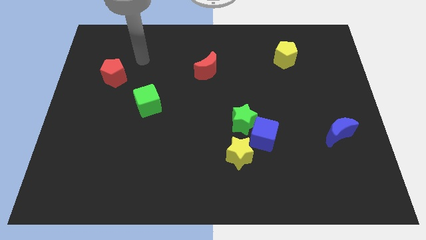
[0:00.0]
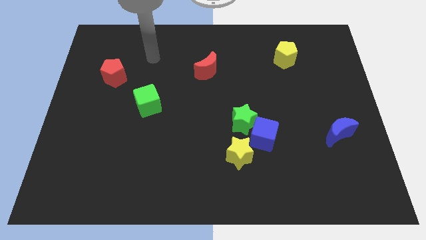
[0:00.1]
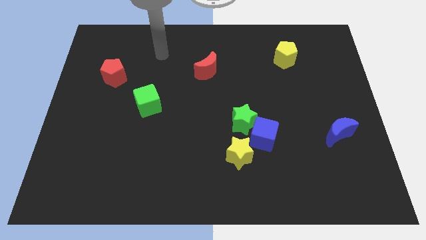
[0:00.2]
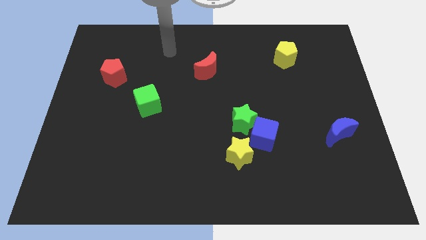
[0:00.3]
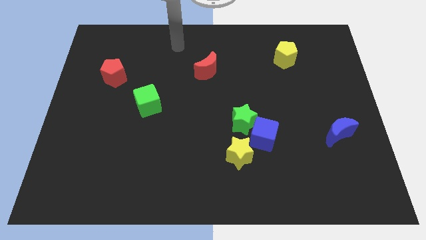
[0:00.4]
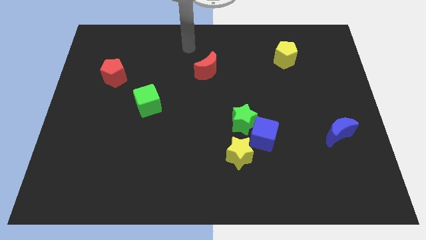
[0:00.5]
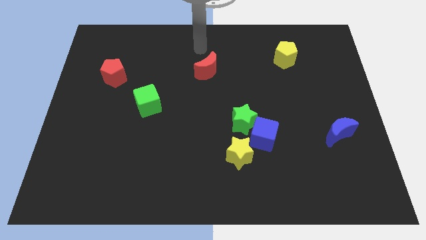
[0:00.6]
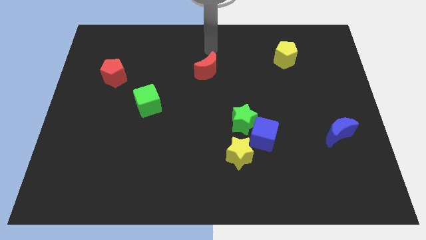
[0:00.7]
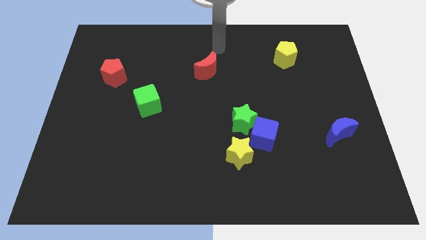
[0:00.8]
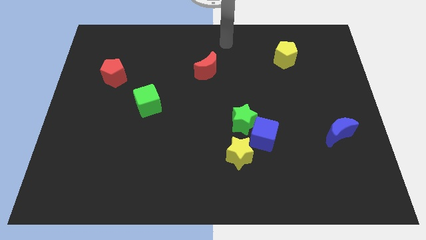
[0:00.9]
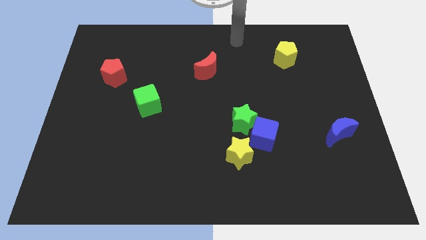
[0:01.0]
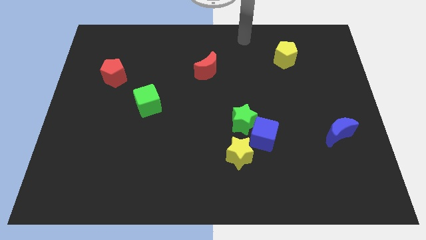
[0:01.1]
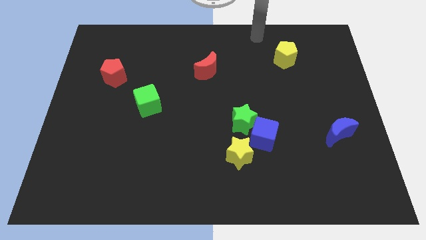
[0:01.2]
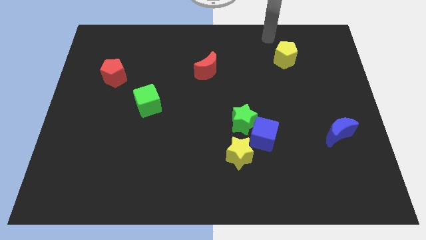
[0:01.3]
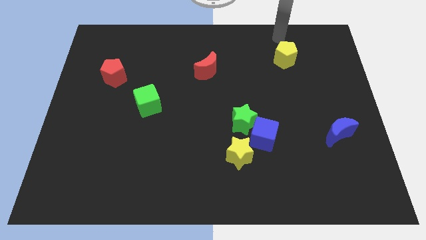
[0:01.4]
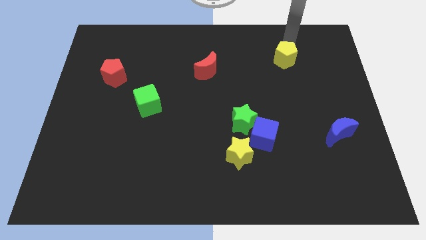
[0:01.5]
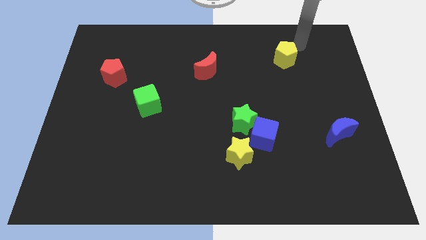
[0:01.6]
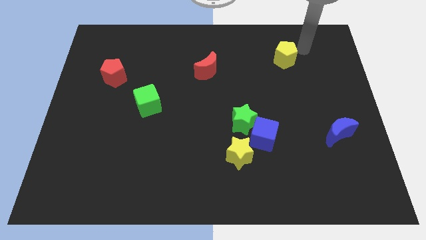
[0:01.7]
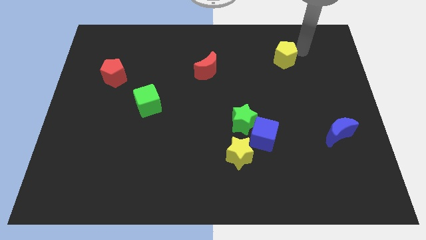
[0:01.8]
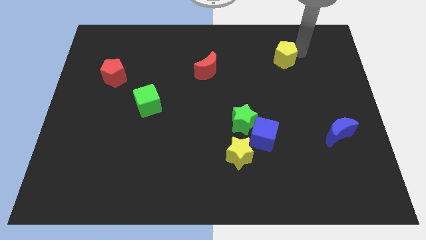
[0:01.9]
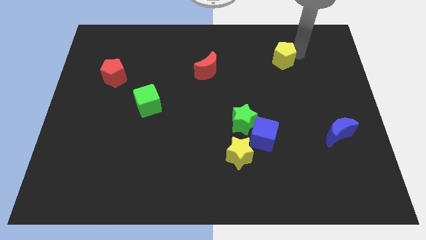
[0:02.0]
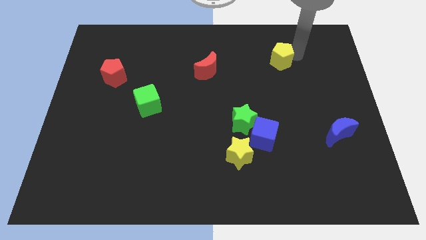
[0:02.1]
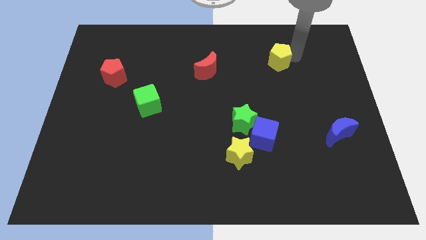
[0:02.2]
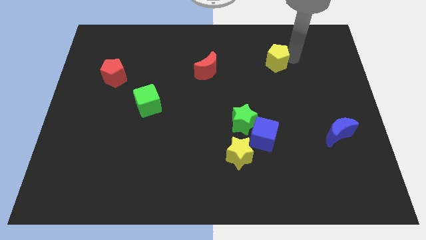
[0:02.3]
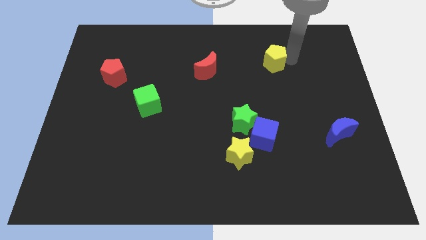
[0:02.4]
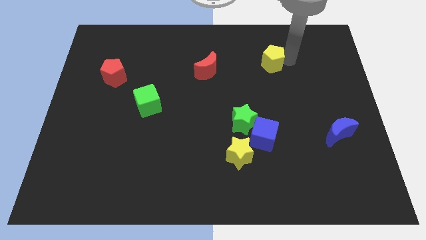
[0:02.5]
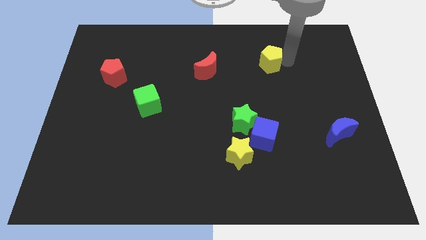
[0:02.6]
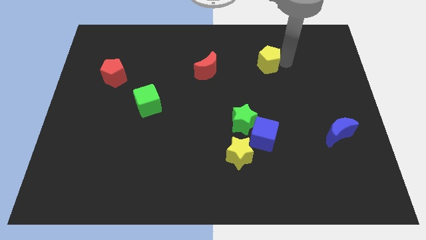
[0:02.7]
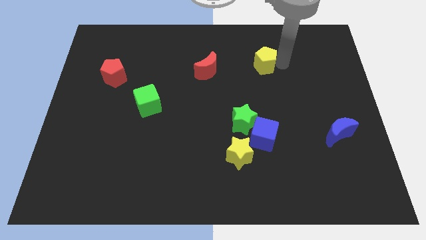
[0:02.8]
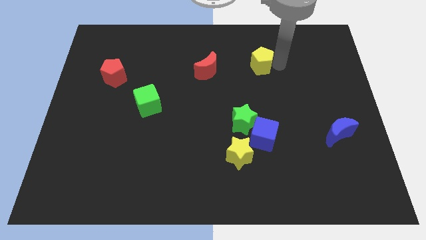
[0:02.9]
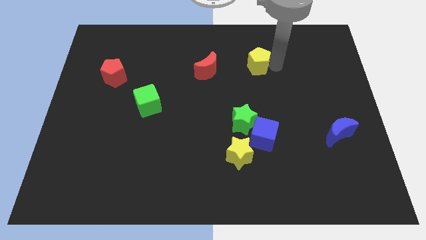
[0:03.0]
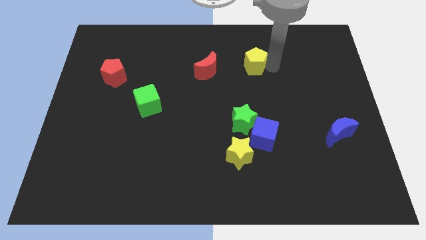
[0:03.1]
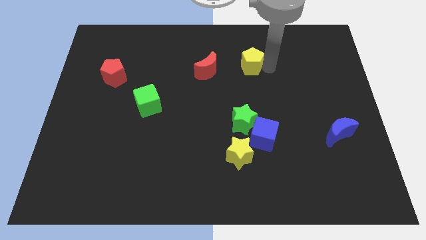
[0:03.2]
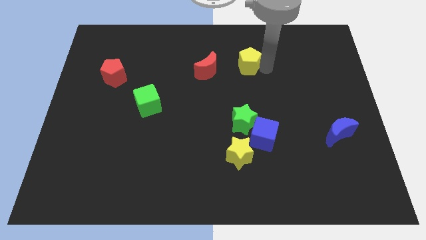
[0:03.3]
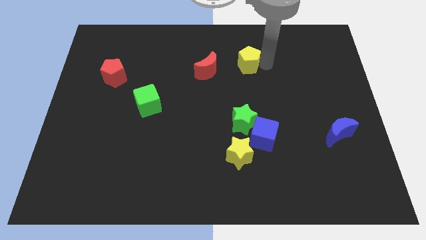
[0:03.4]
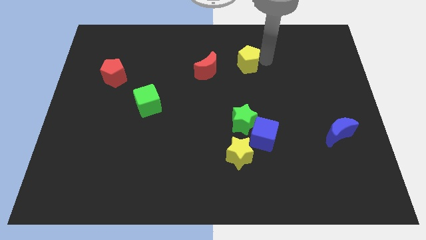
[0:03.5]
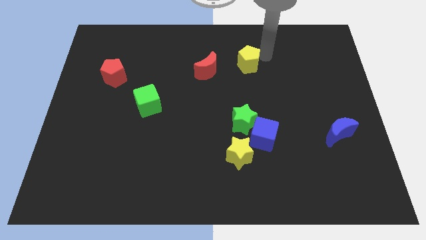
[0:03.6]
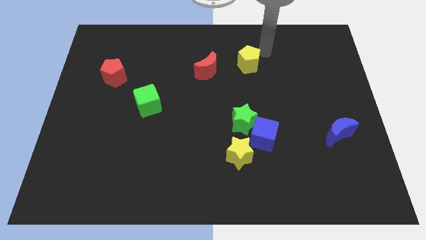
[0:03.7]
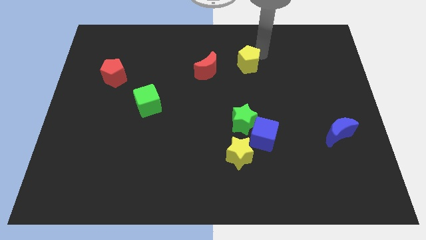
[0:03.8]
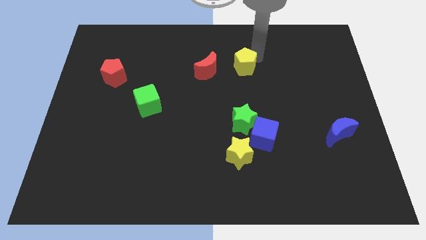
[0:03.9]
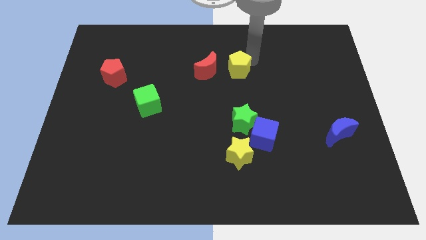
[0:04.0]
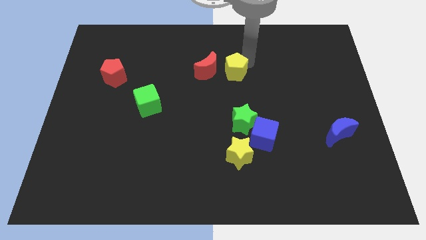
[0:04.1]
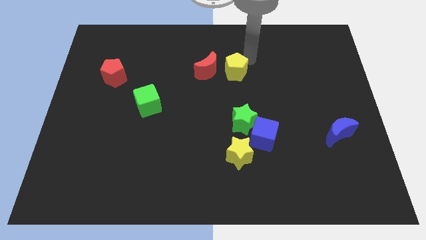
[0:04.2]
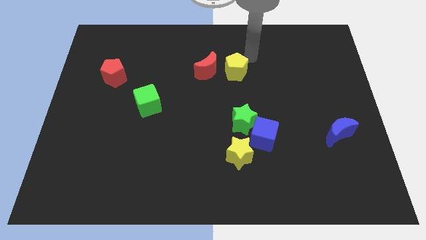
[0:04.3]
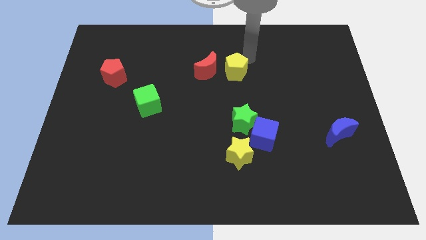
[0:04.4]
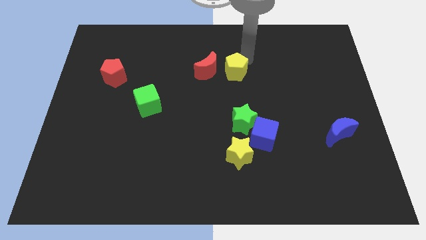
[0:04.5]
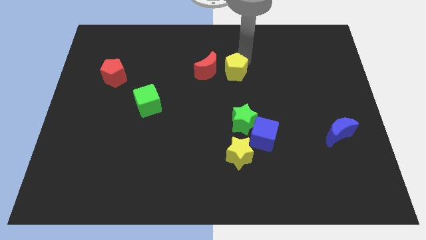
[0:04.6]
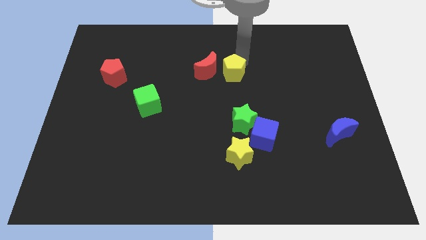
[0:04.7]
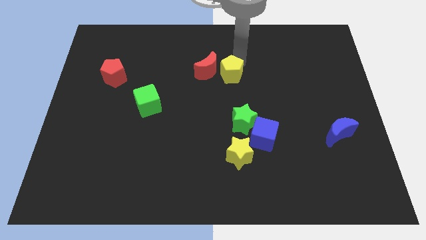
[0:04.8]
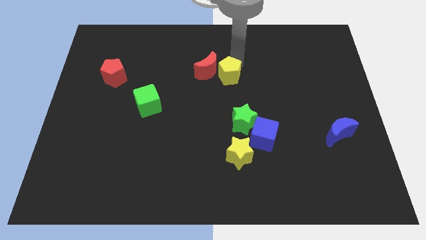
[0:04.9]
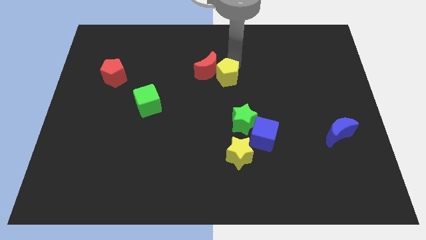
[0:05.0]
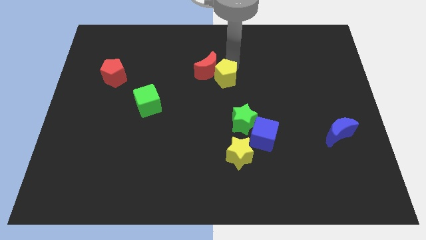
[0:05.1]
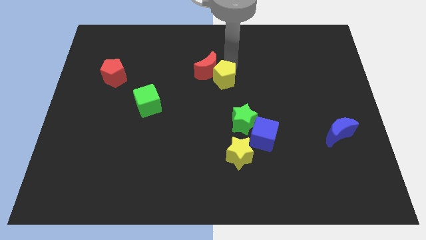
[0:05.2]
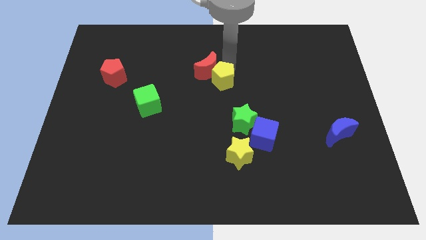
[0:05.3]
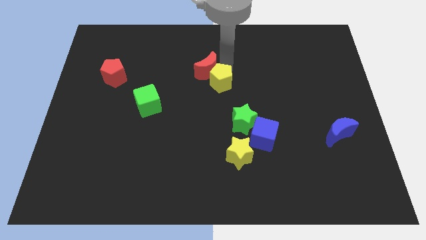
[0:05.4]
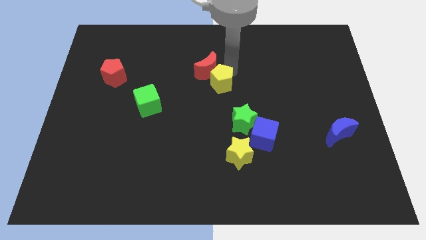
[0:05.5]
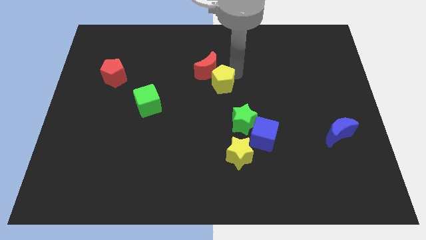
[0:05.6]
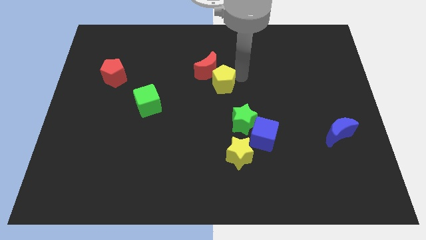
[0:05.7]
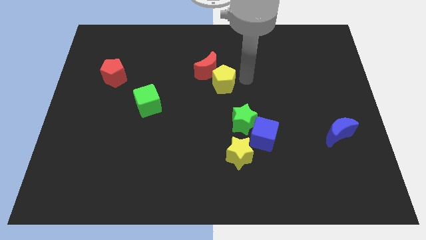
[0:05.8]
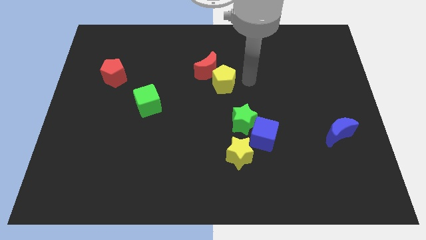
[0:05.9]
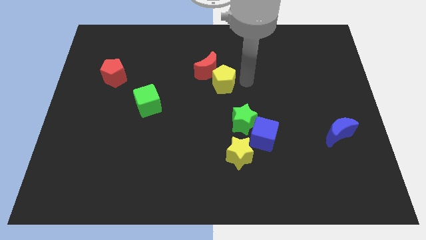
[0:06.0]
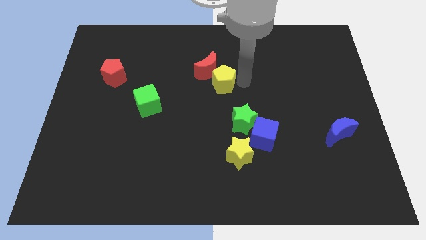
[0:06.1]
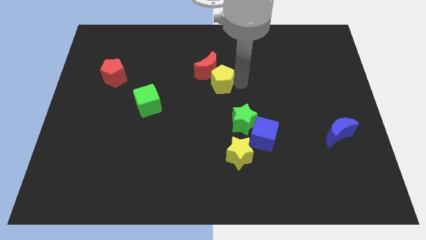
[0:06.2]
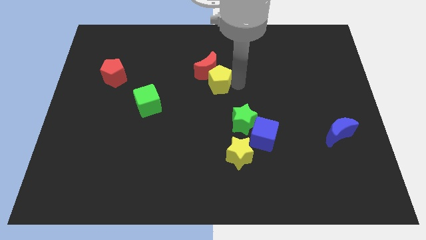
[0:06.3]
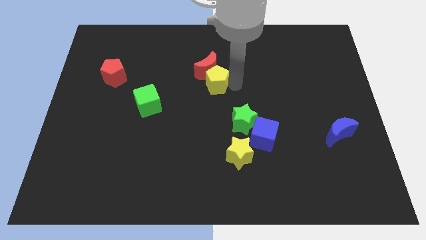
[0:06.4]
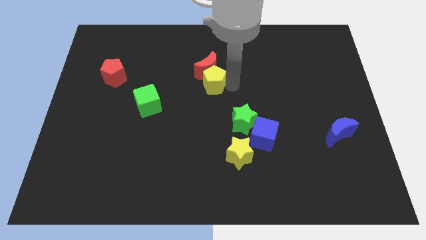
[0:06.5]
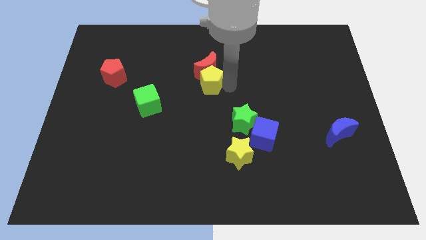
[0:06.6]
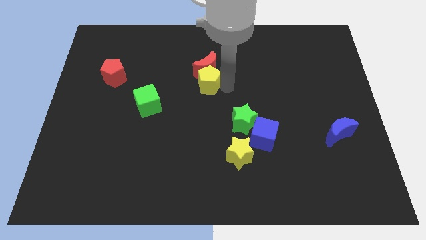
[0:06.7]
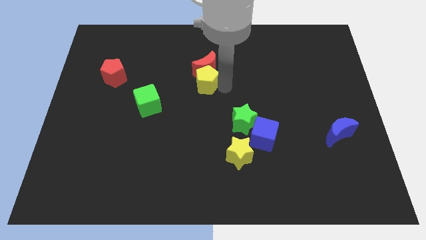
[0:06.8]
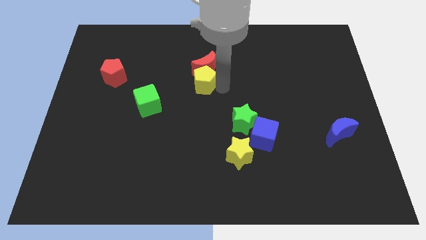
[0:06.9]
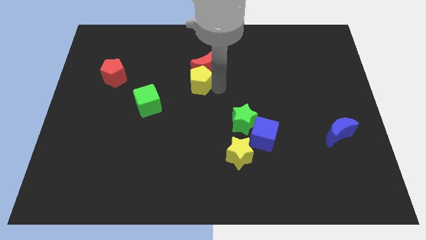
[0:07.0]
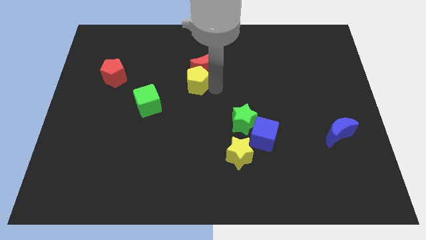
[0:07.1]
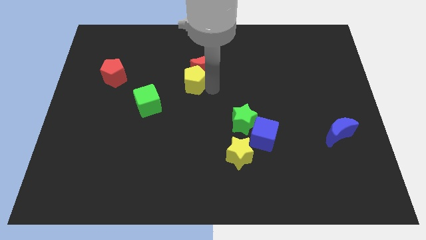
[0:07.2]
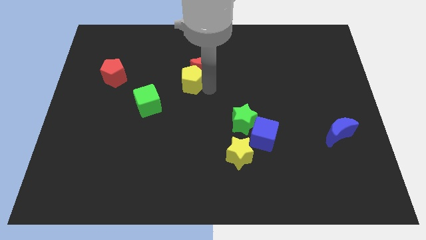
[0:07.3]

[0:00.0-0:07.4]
move the yellow pentagon to the top right of the green cube
